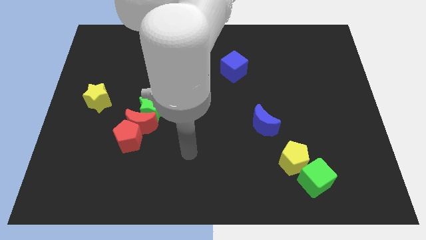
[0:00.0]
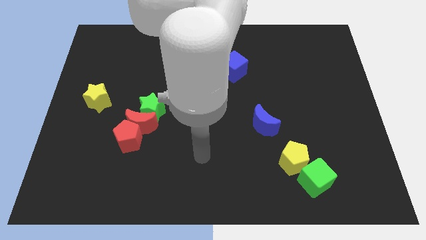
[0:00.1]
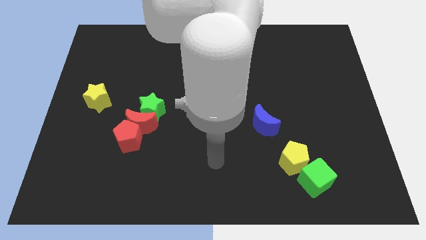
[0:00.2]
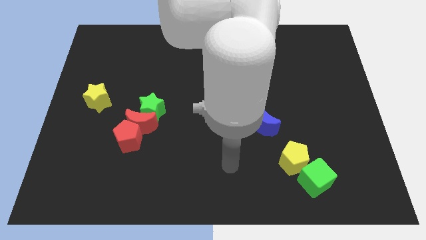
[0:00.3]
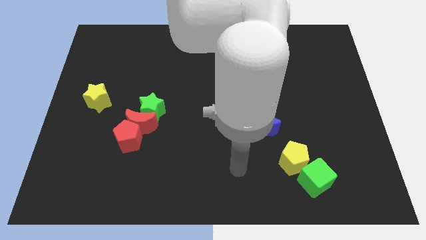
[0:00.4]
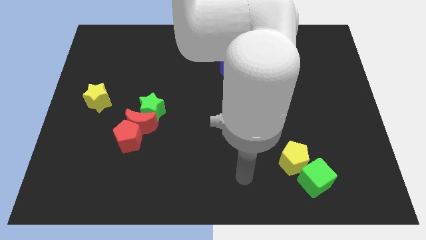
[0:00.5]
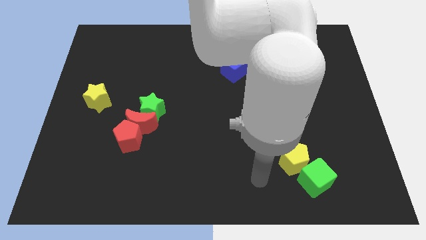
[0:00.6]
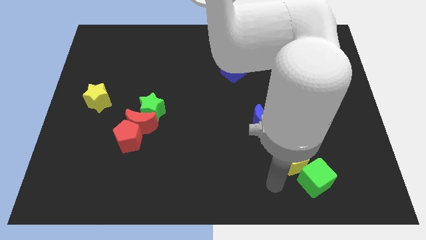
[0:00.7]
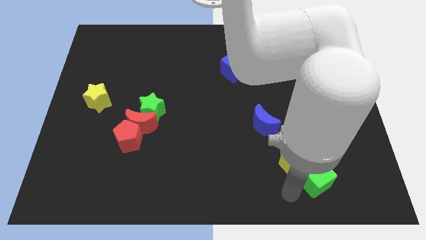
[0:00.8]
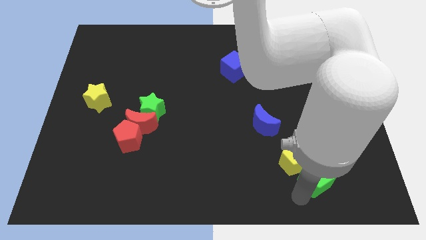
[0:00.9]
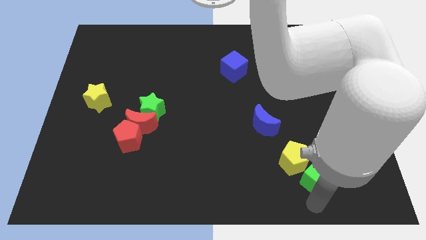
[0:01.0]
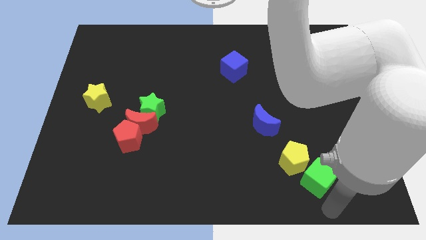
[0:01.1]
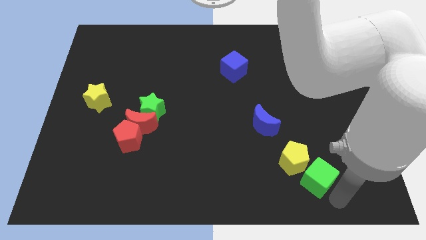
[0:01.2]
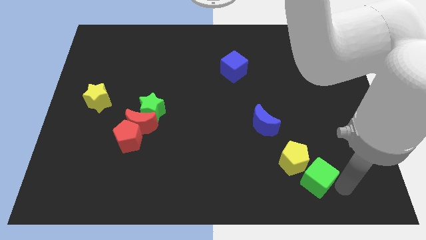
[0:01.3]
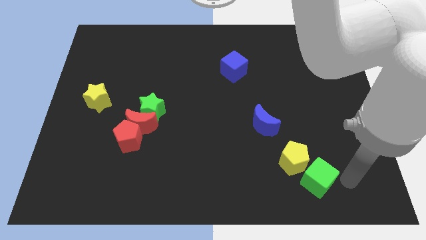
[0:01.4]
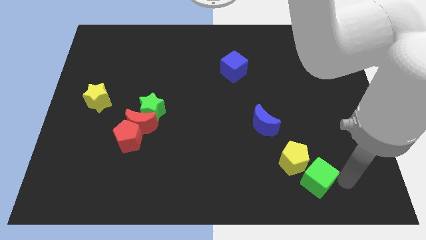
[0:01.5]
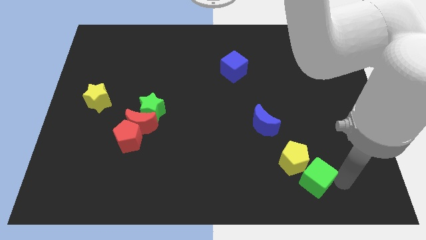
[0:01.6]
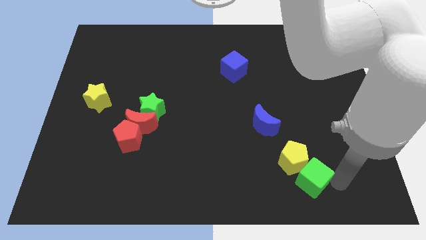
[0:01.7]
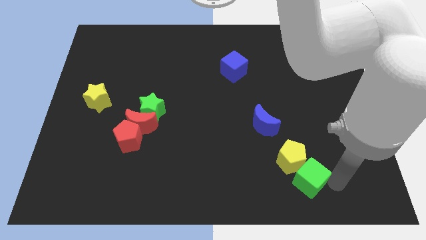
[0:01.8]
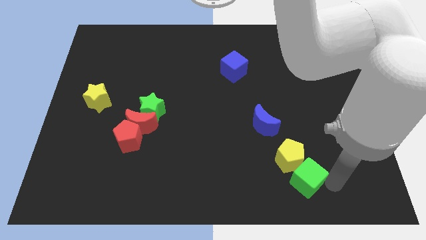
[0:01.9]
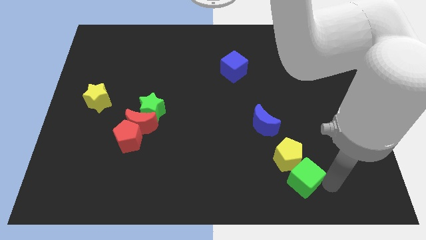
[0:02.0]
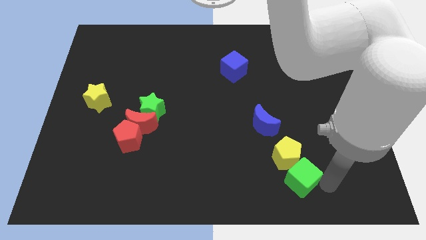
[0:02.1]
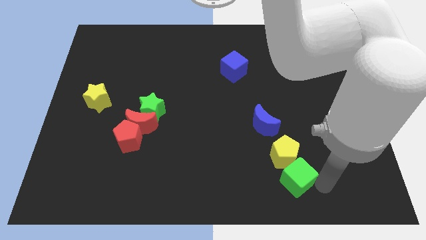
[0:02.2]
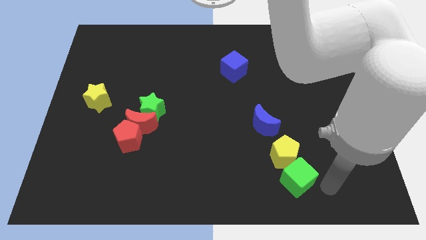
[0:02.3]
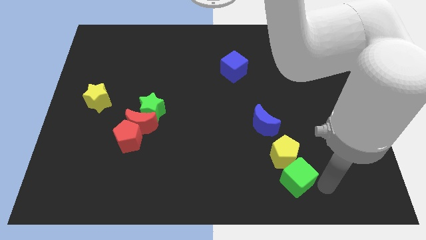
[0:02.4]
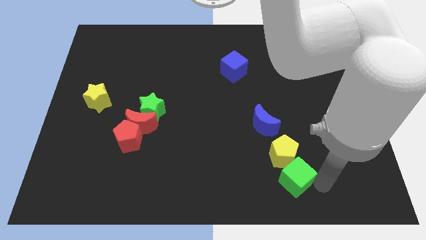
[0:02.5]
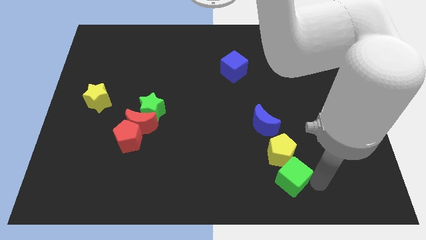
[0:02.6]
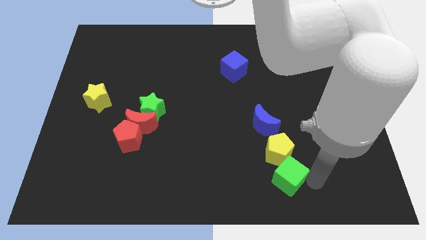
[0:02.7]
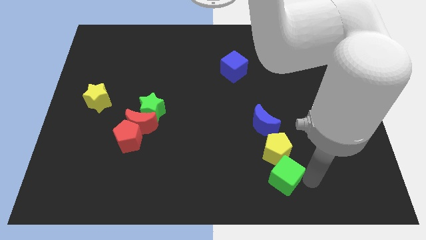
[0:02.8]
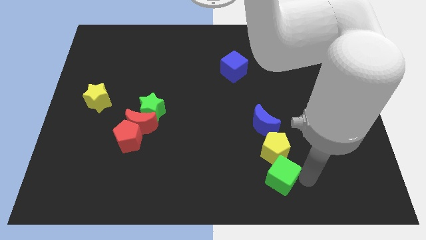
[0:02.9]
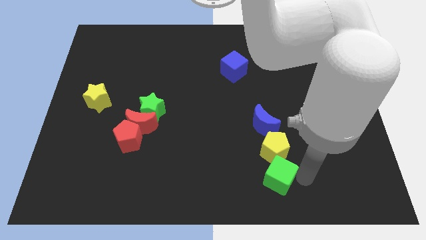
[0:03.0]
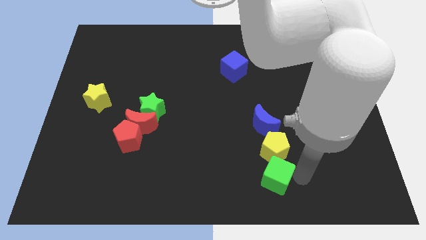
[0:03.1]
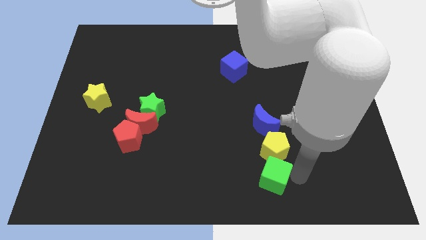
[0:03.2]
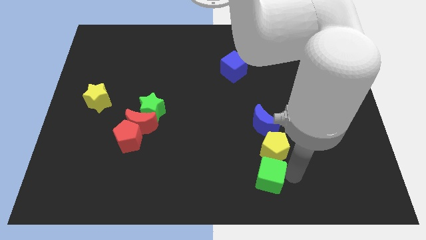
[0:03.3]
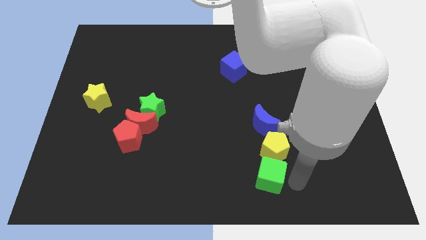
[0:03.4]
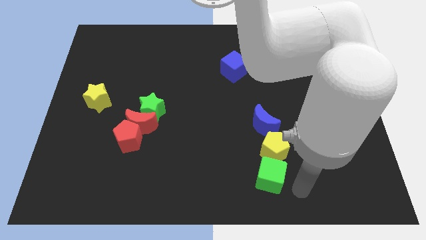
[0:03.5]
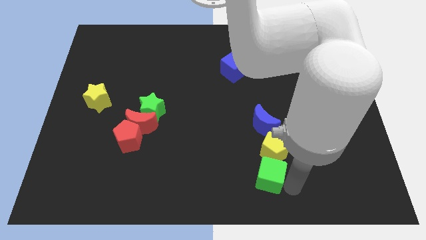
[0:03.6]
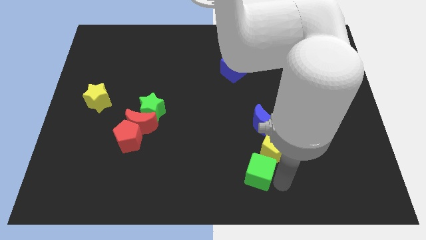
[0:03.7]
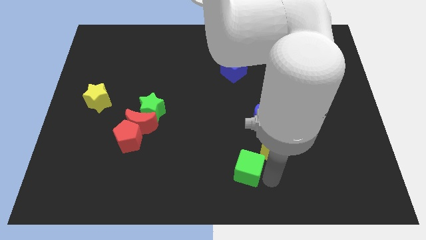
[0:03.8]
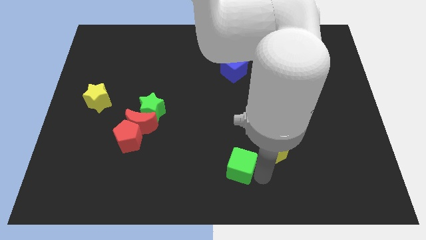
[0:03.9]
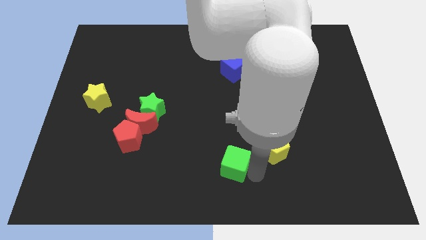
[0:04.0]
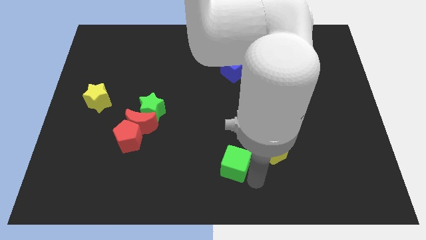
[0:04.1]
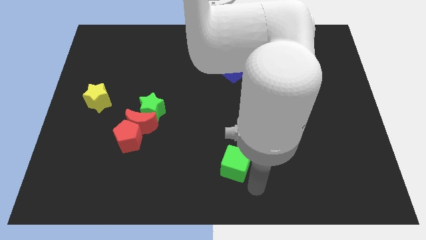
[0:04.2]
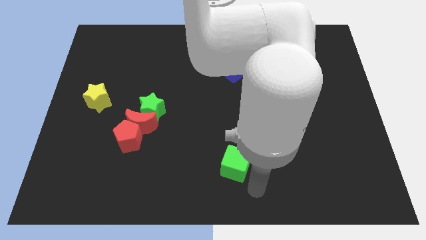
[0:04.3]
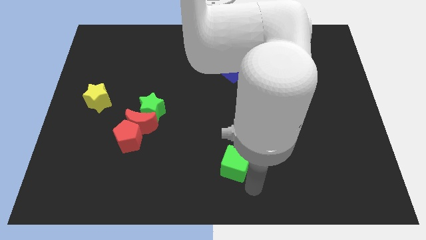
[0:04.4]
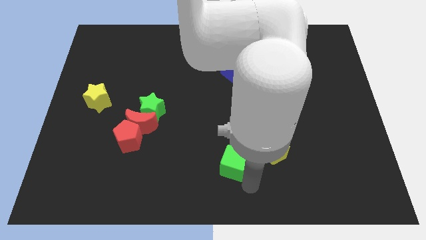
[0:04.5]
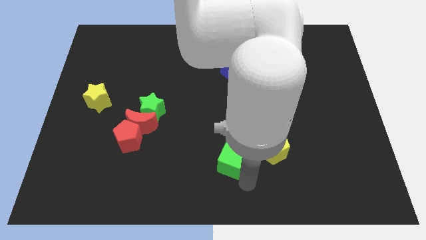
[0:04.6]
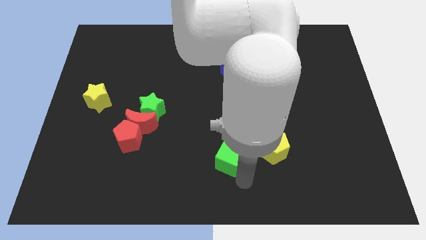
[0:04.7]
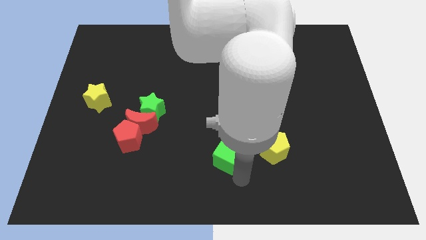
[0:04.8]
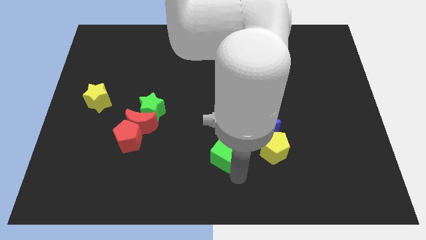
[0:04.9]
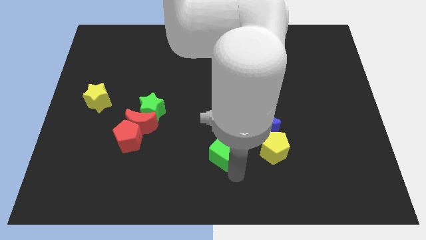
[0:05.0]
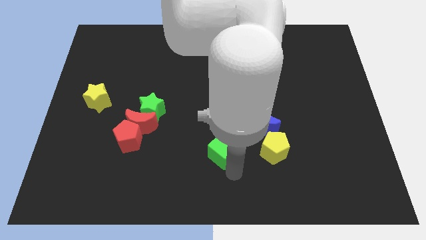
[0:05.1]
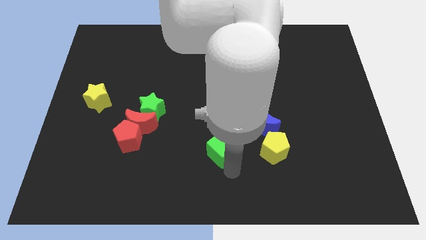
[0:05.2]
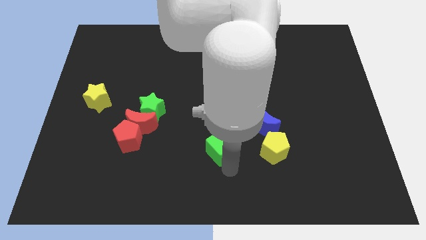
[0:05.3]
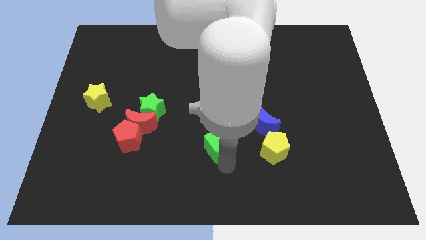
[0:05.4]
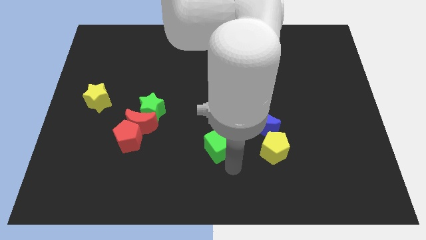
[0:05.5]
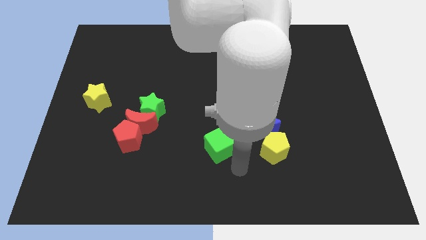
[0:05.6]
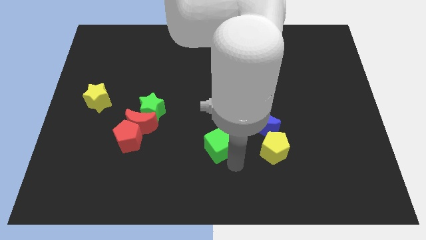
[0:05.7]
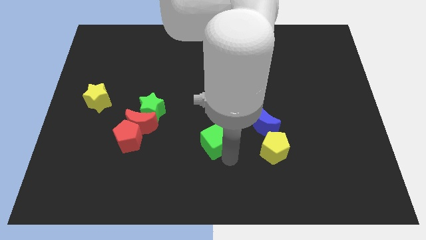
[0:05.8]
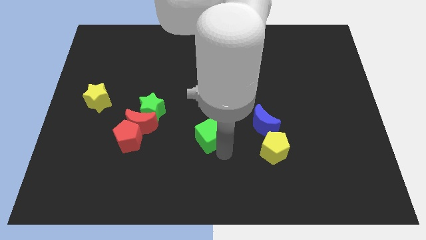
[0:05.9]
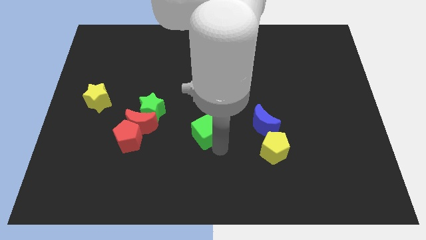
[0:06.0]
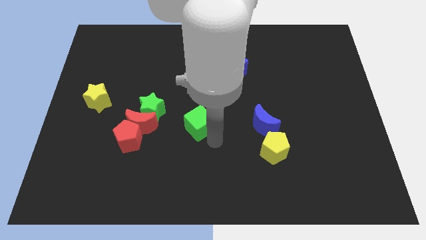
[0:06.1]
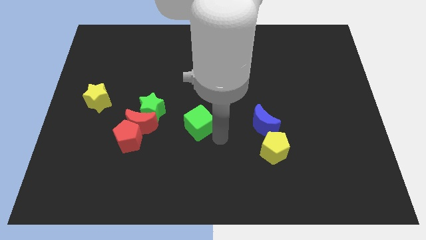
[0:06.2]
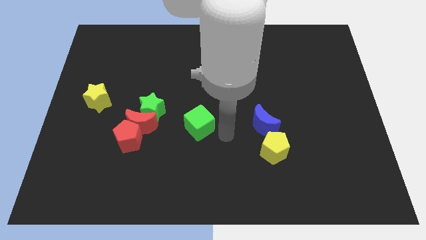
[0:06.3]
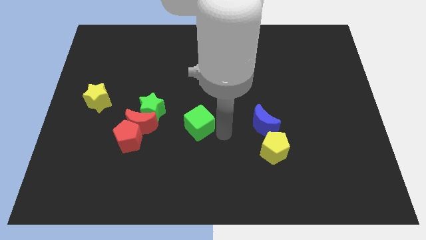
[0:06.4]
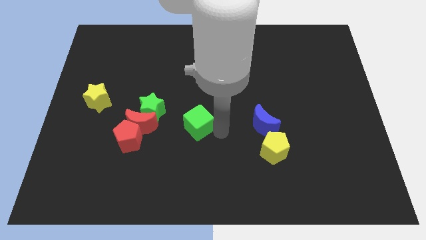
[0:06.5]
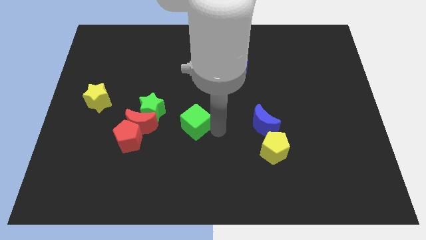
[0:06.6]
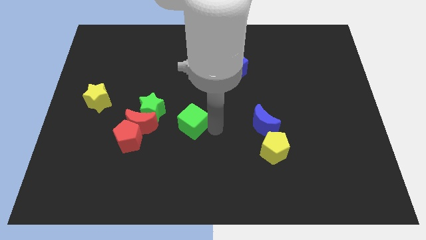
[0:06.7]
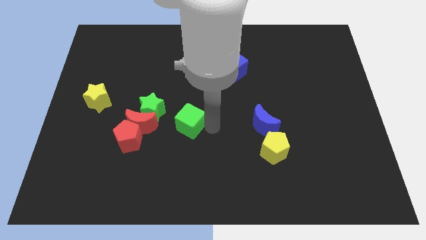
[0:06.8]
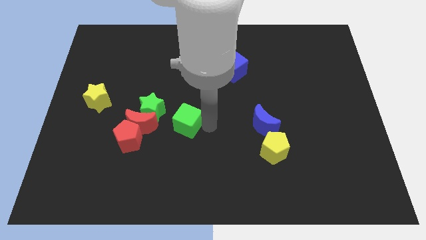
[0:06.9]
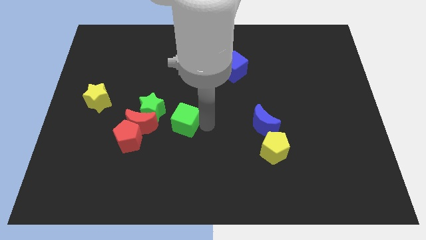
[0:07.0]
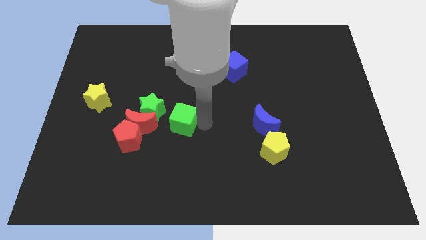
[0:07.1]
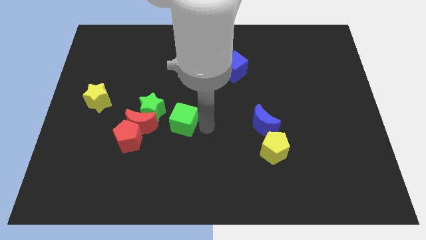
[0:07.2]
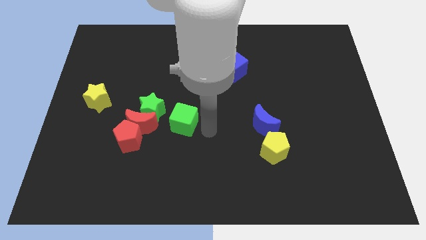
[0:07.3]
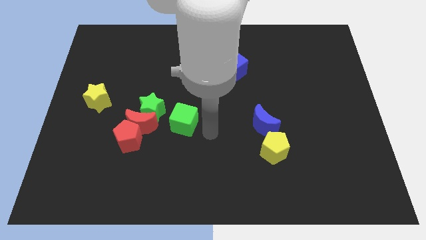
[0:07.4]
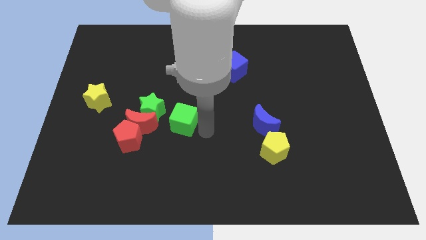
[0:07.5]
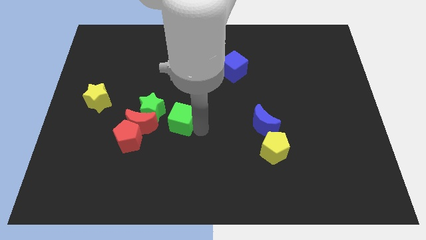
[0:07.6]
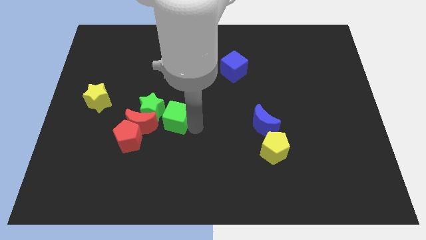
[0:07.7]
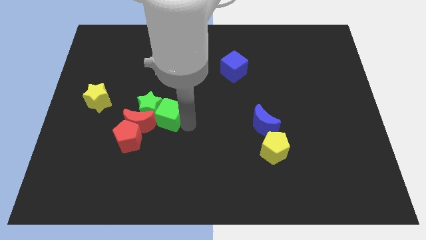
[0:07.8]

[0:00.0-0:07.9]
push the green cube close to the green star
